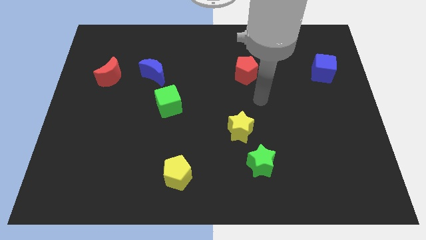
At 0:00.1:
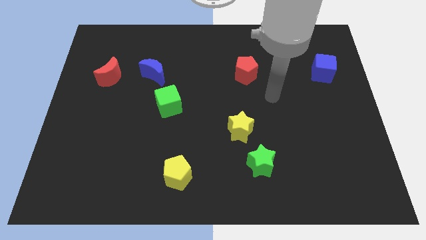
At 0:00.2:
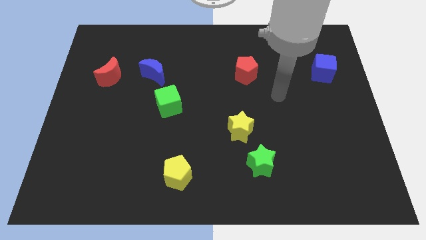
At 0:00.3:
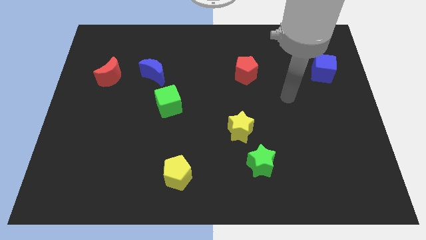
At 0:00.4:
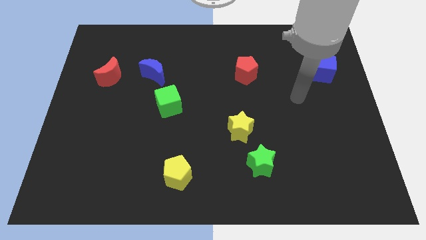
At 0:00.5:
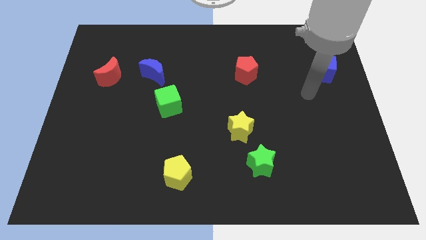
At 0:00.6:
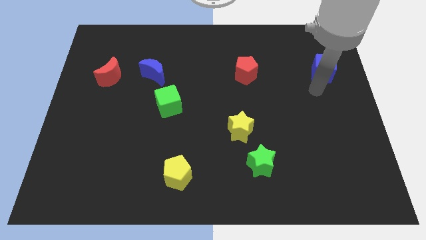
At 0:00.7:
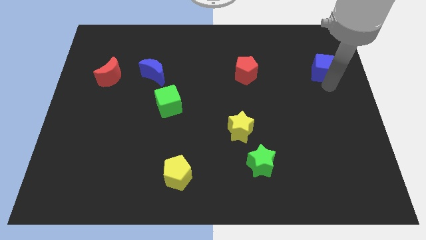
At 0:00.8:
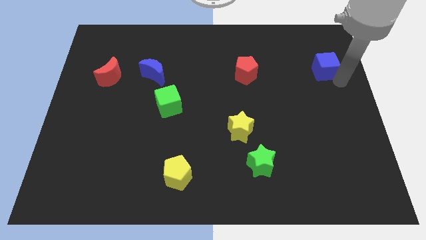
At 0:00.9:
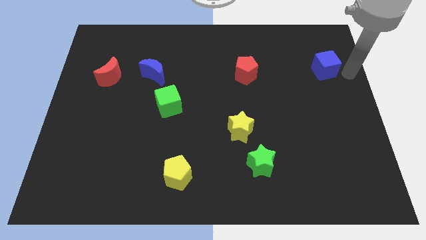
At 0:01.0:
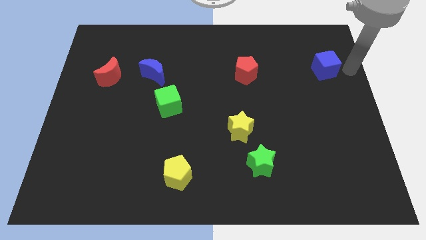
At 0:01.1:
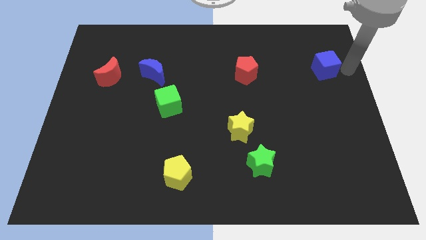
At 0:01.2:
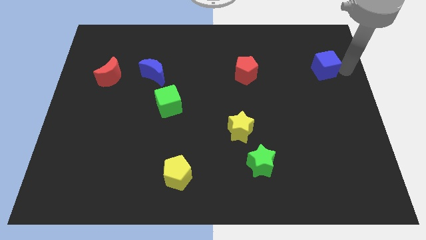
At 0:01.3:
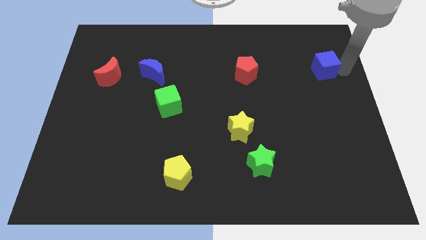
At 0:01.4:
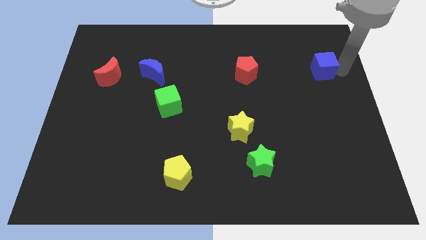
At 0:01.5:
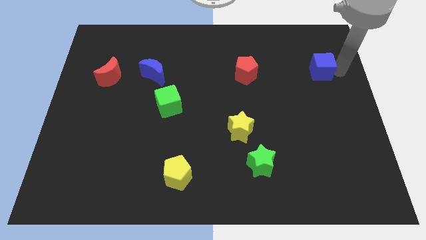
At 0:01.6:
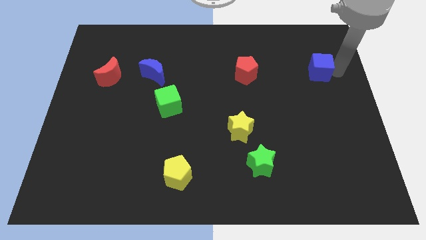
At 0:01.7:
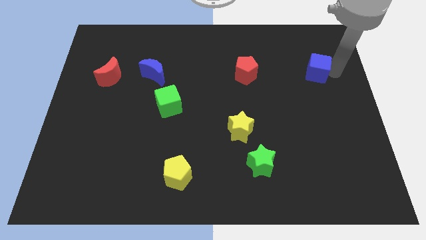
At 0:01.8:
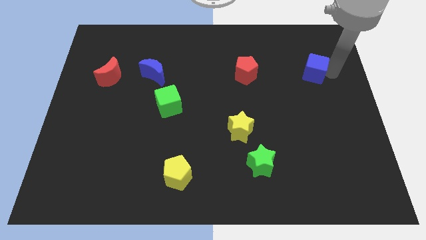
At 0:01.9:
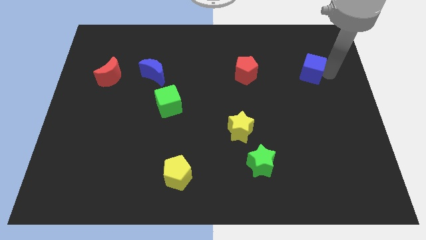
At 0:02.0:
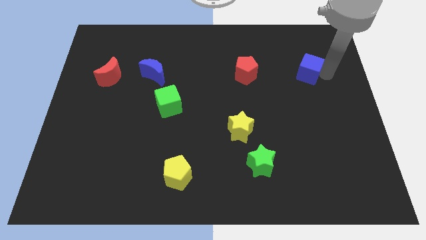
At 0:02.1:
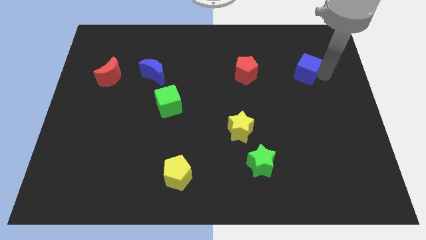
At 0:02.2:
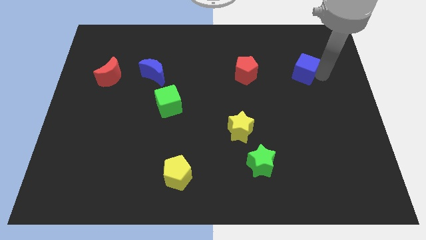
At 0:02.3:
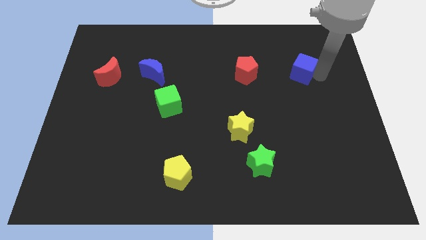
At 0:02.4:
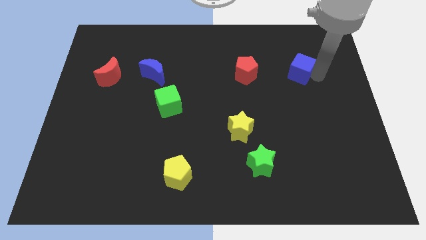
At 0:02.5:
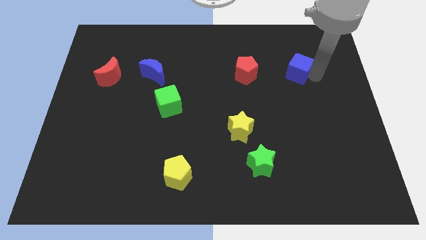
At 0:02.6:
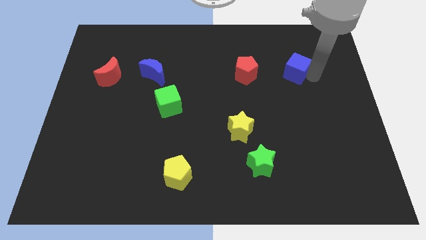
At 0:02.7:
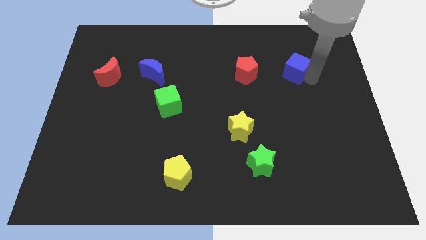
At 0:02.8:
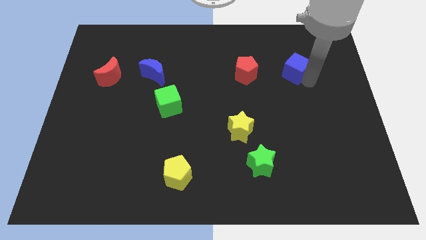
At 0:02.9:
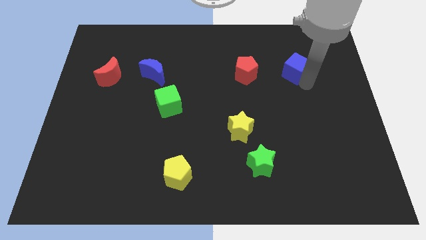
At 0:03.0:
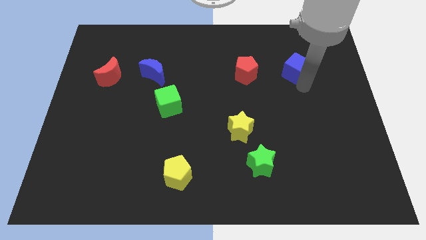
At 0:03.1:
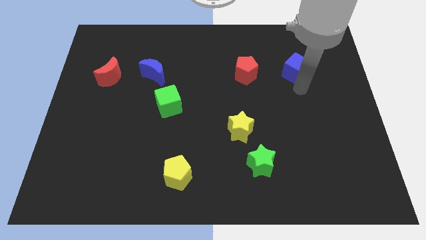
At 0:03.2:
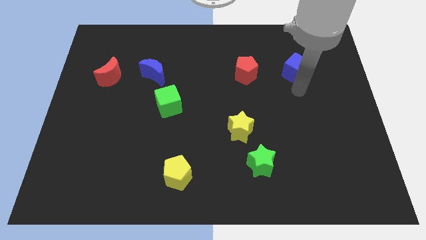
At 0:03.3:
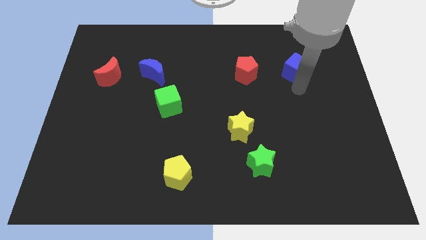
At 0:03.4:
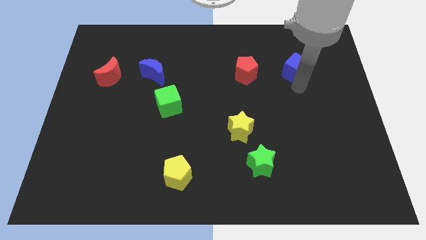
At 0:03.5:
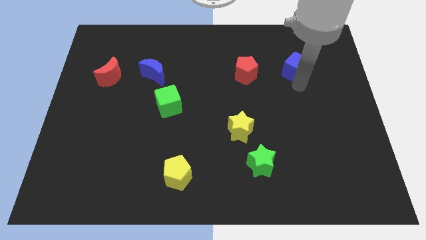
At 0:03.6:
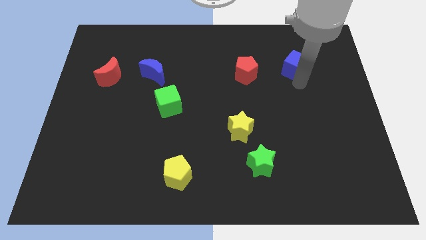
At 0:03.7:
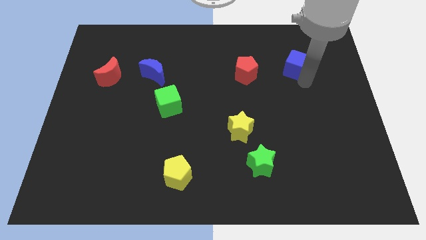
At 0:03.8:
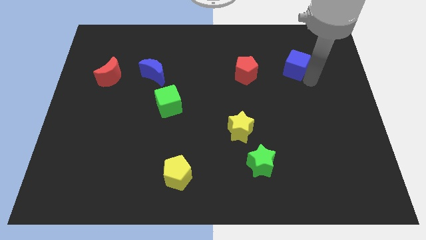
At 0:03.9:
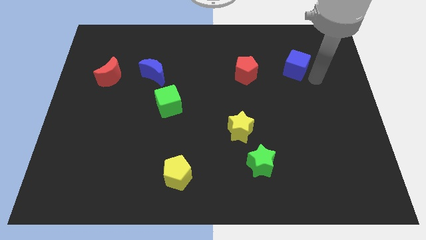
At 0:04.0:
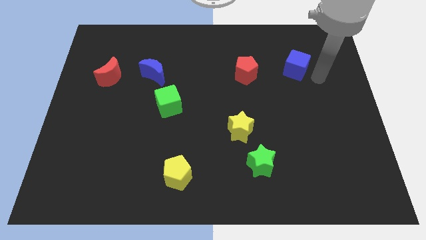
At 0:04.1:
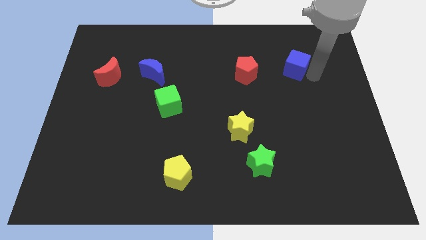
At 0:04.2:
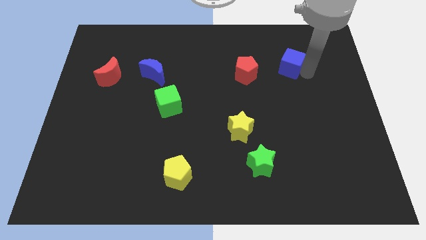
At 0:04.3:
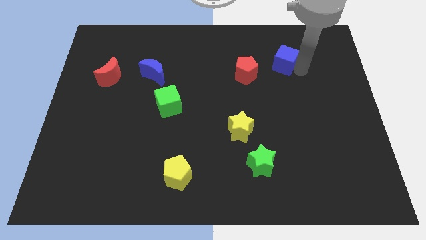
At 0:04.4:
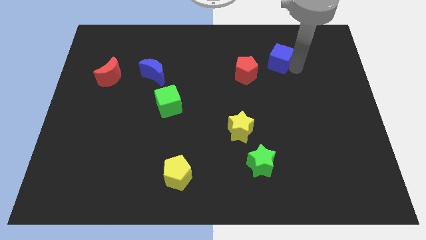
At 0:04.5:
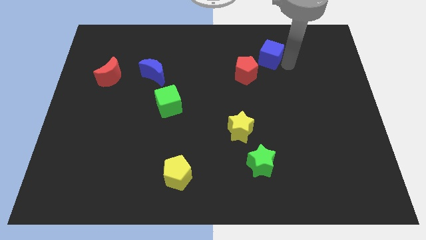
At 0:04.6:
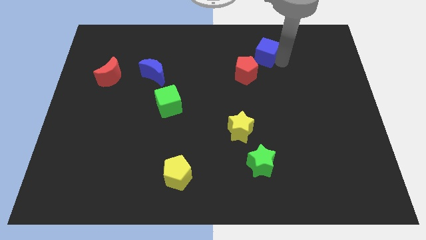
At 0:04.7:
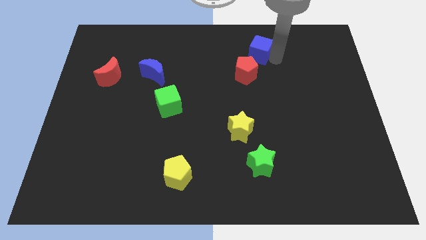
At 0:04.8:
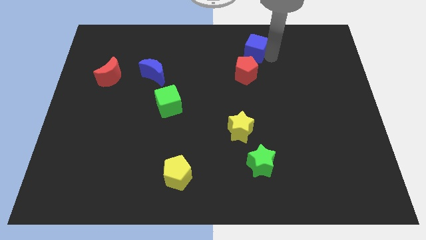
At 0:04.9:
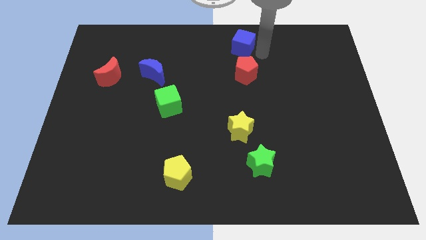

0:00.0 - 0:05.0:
move the blue cube to the top

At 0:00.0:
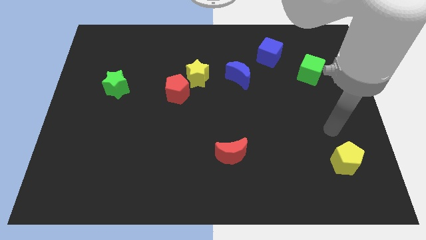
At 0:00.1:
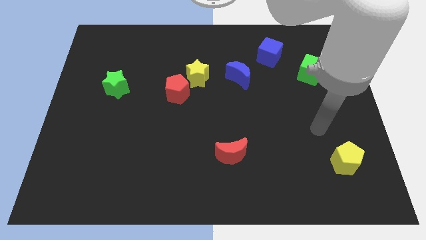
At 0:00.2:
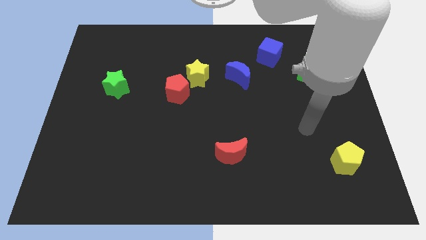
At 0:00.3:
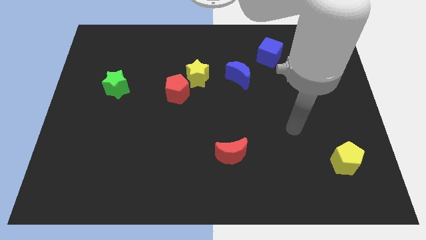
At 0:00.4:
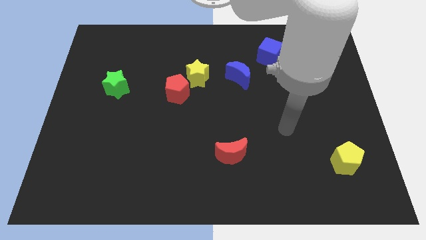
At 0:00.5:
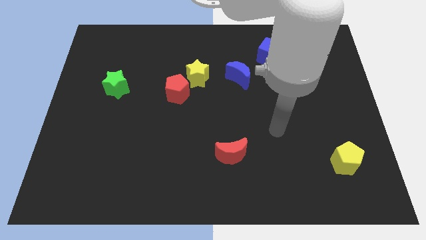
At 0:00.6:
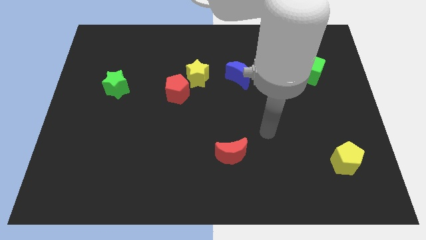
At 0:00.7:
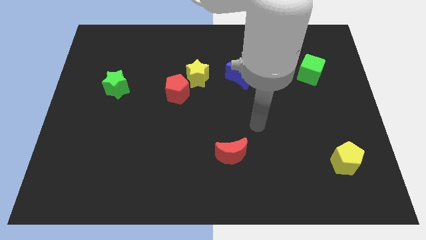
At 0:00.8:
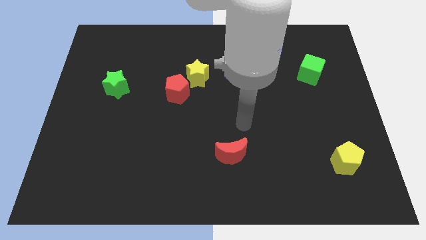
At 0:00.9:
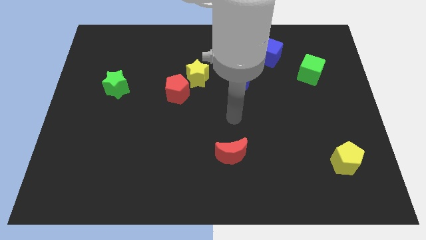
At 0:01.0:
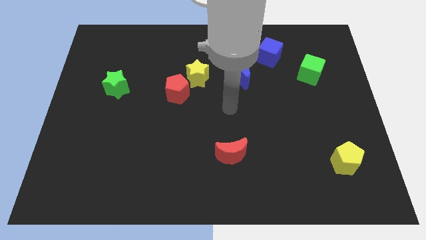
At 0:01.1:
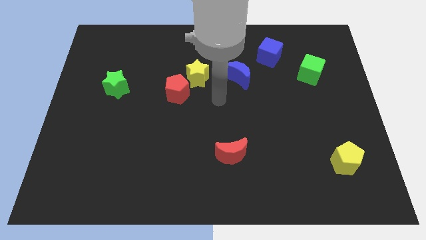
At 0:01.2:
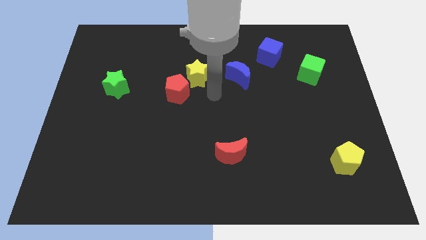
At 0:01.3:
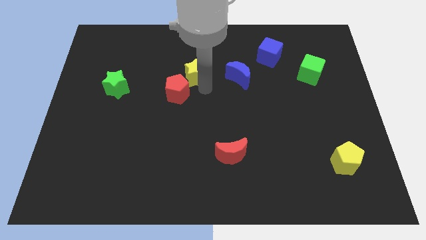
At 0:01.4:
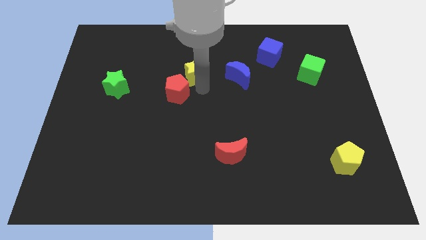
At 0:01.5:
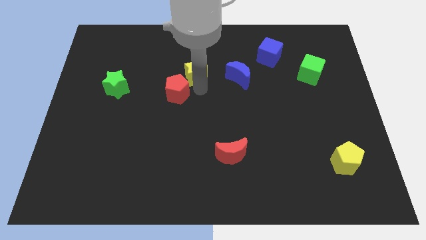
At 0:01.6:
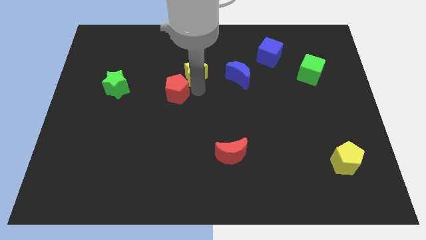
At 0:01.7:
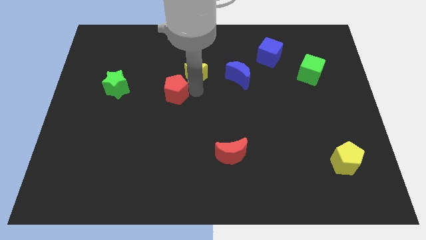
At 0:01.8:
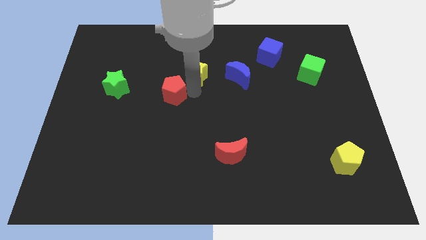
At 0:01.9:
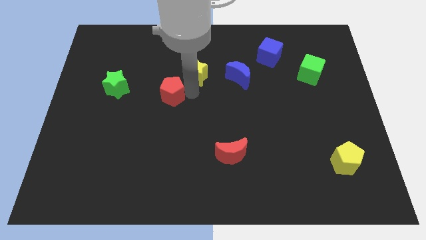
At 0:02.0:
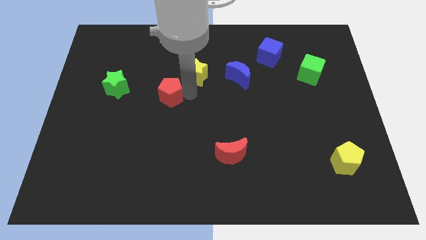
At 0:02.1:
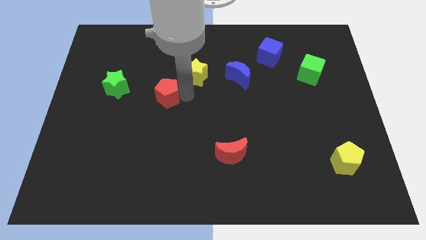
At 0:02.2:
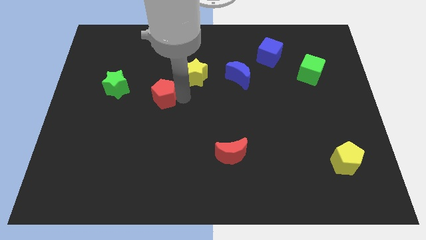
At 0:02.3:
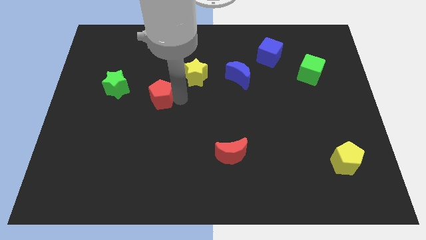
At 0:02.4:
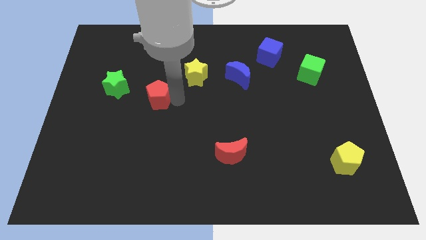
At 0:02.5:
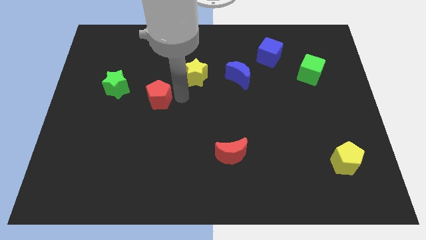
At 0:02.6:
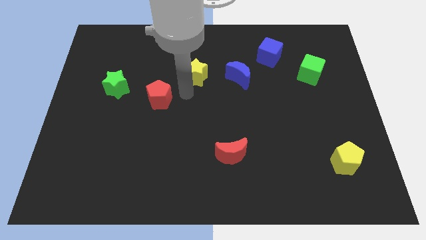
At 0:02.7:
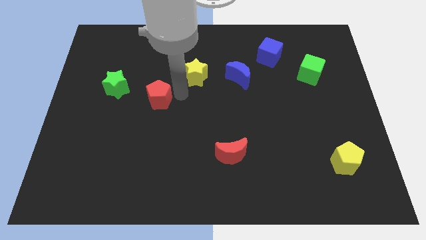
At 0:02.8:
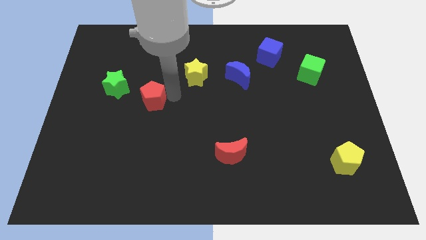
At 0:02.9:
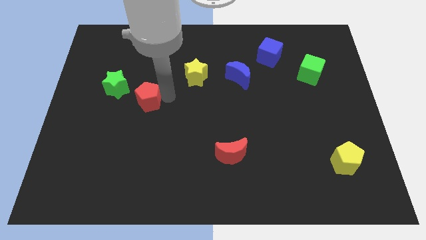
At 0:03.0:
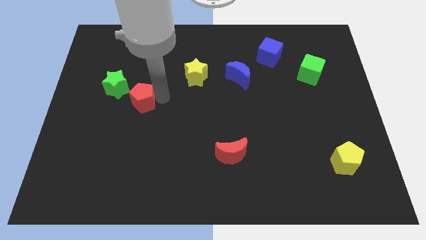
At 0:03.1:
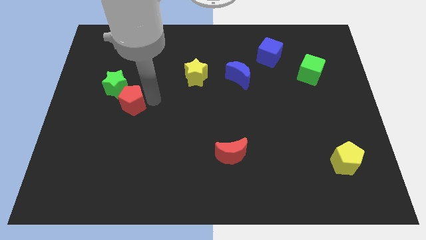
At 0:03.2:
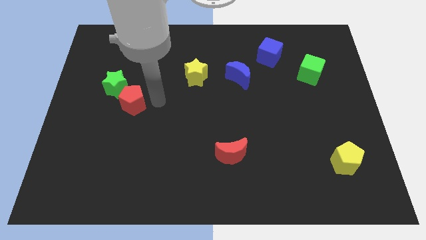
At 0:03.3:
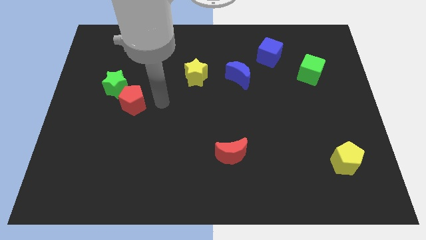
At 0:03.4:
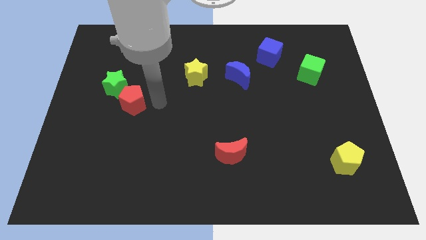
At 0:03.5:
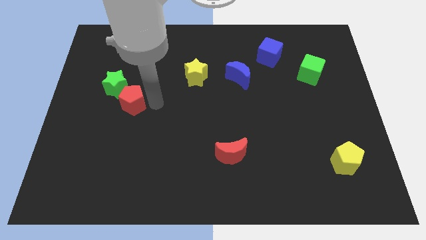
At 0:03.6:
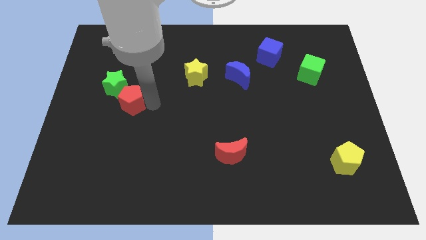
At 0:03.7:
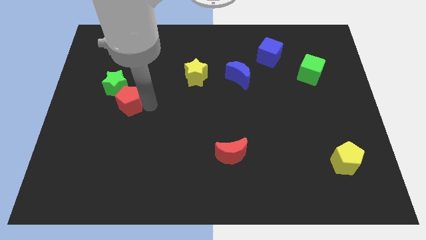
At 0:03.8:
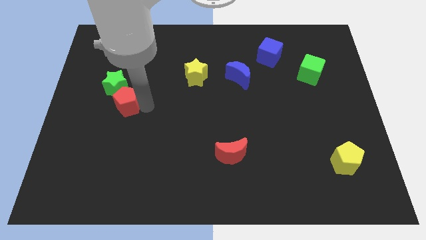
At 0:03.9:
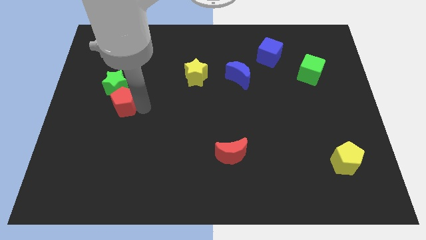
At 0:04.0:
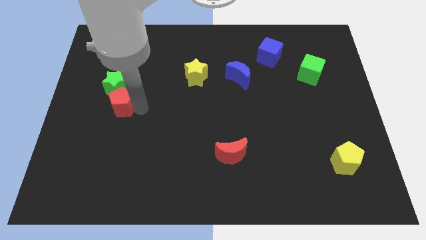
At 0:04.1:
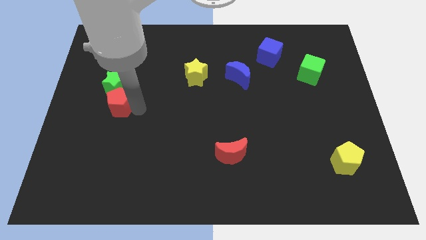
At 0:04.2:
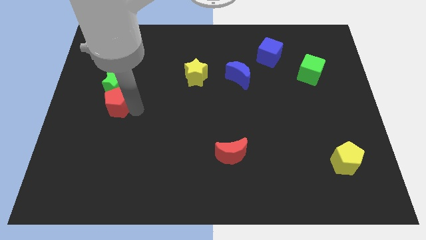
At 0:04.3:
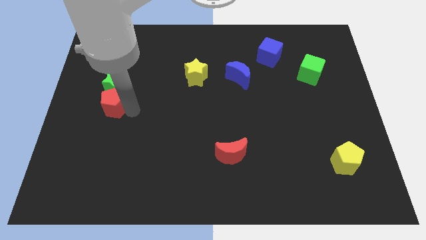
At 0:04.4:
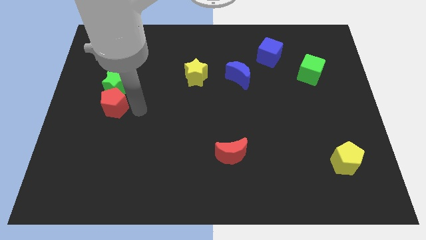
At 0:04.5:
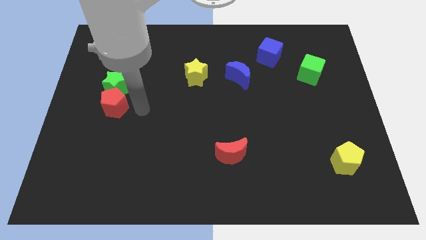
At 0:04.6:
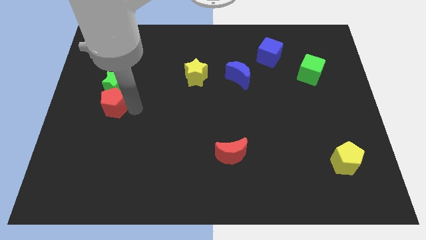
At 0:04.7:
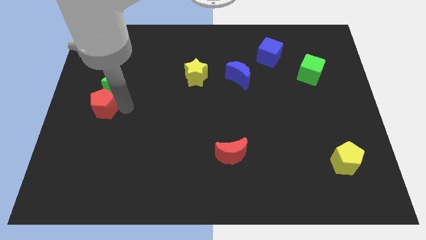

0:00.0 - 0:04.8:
slide the red pentagon to the left side of the board
